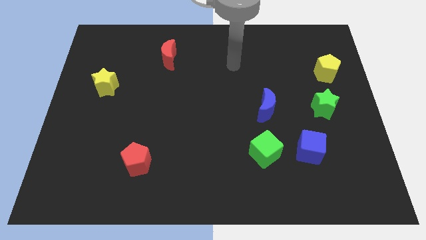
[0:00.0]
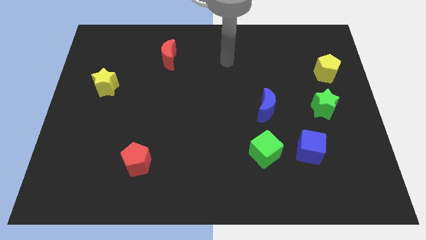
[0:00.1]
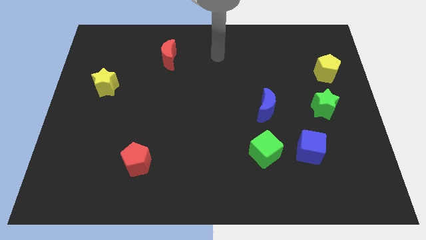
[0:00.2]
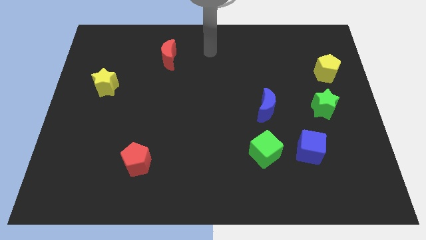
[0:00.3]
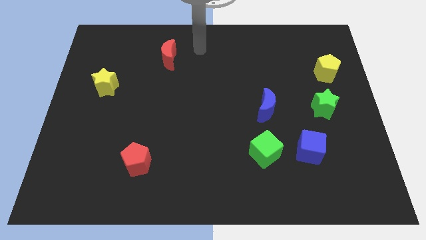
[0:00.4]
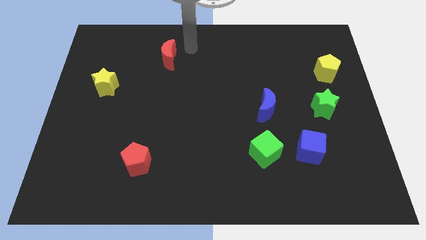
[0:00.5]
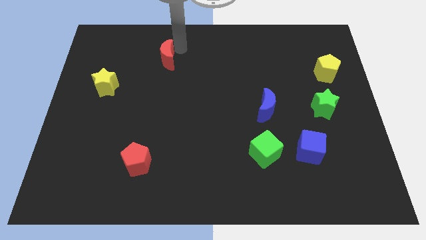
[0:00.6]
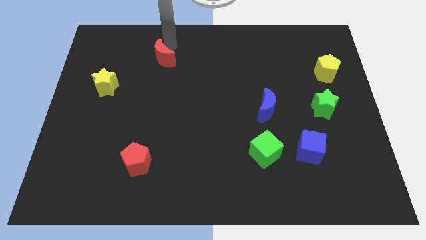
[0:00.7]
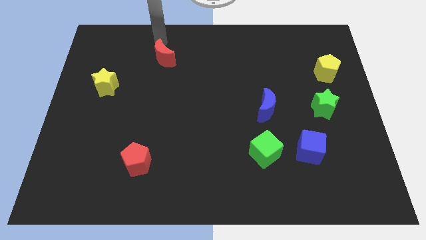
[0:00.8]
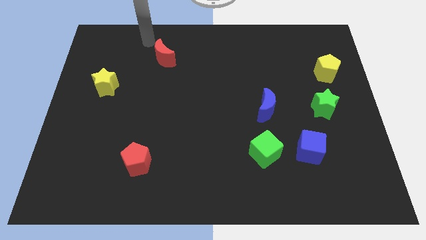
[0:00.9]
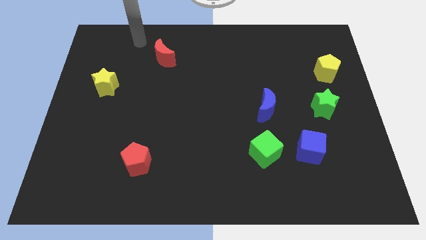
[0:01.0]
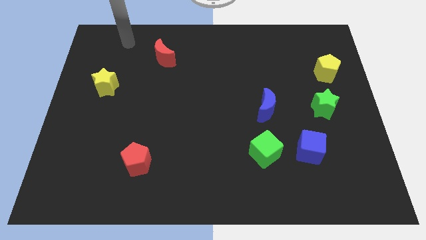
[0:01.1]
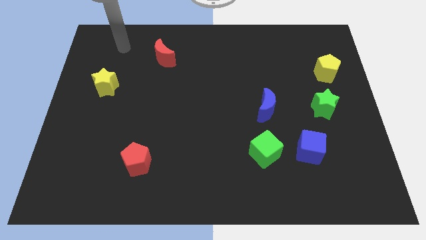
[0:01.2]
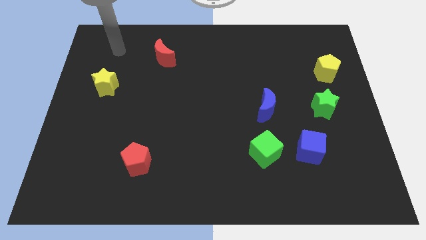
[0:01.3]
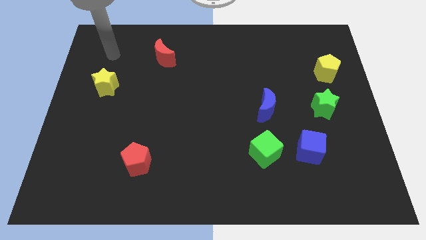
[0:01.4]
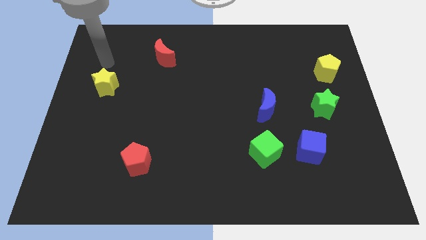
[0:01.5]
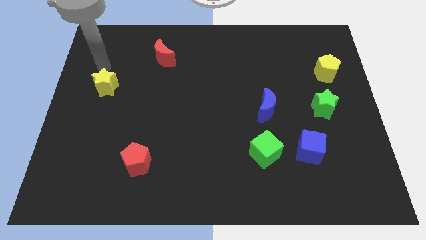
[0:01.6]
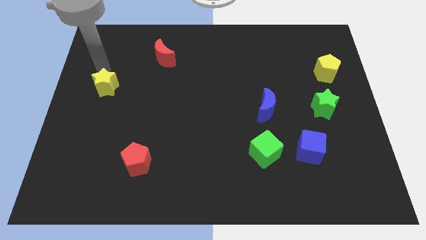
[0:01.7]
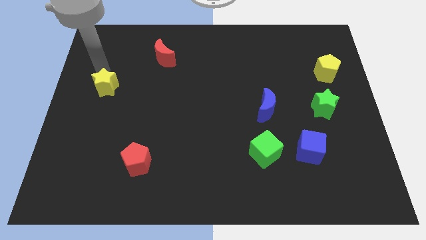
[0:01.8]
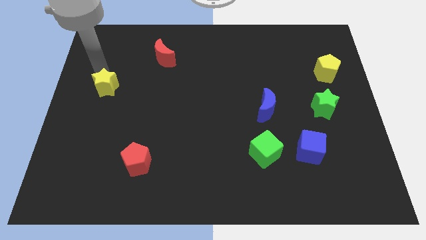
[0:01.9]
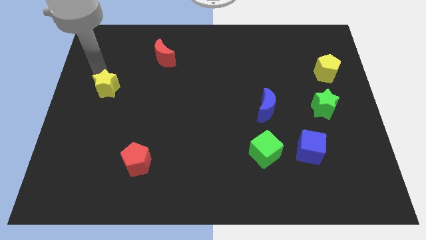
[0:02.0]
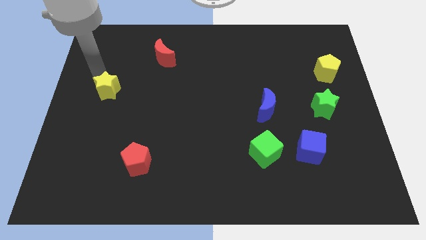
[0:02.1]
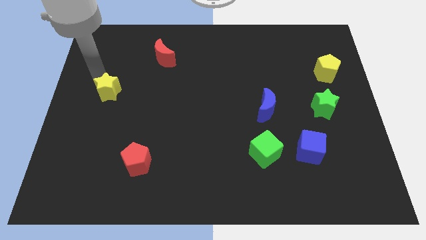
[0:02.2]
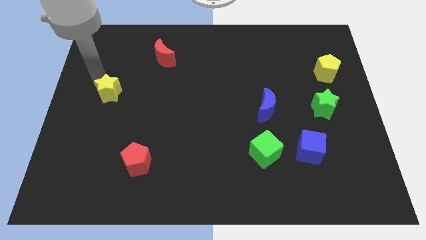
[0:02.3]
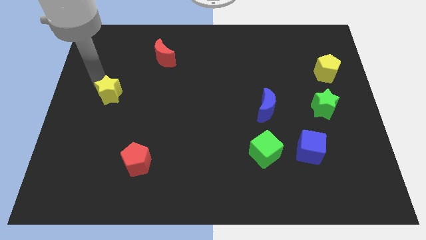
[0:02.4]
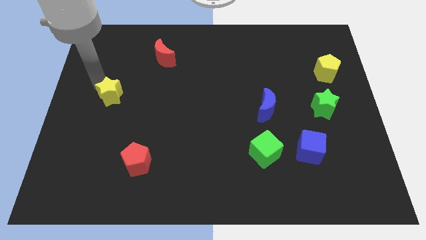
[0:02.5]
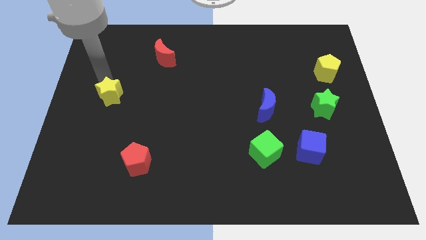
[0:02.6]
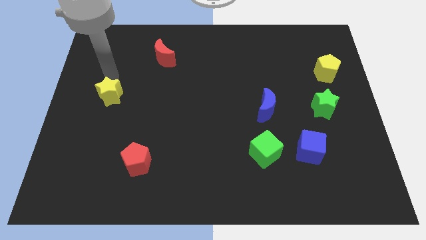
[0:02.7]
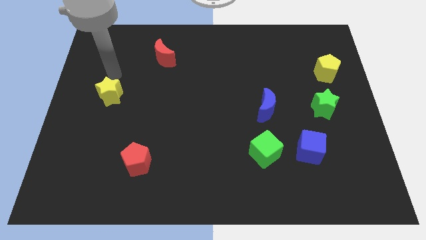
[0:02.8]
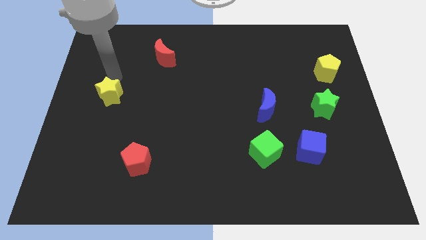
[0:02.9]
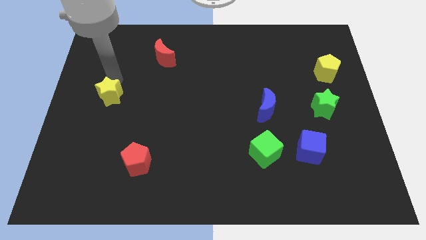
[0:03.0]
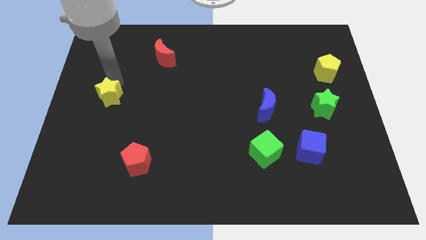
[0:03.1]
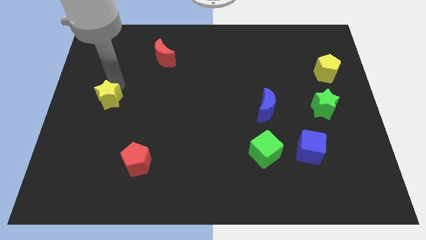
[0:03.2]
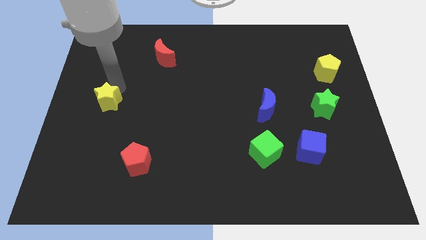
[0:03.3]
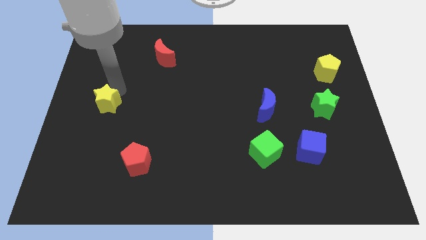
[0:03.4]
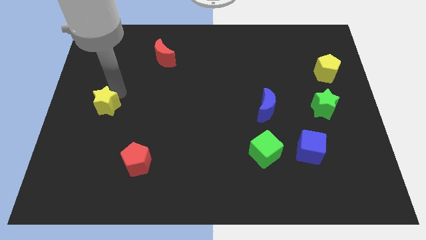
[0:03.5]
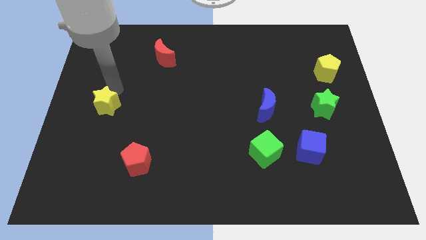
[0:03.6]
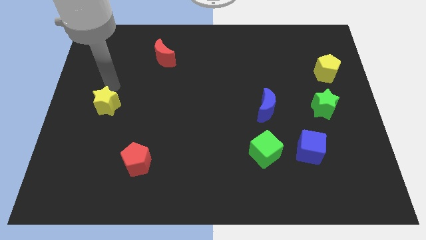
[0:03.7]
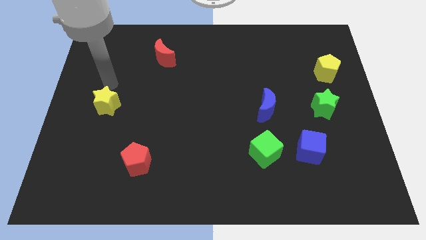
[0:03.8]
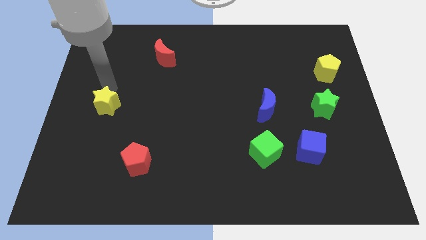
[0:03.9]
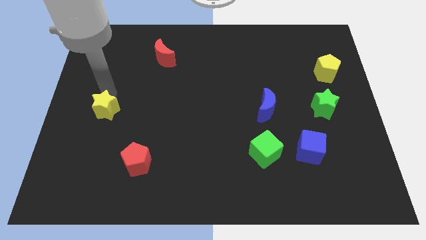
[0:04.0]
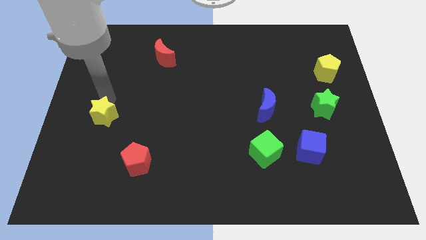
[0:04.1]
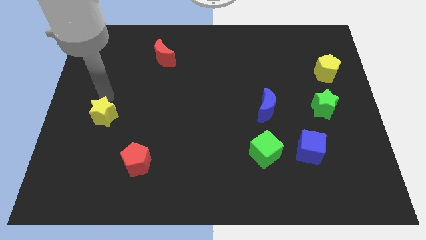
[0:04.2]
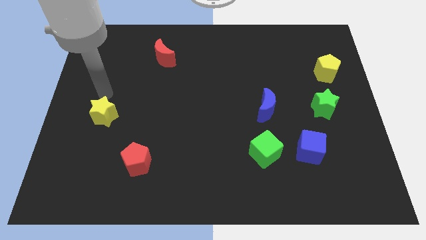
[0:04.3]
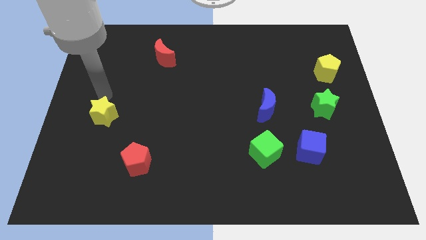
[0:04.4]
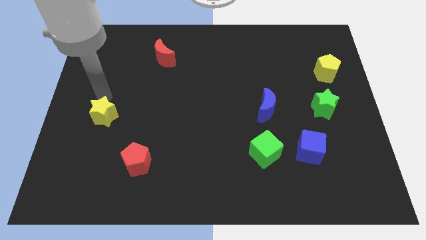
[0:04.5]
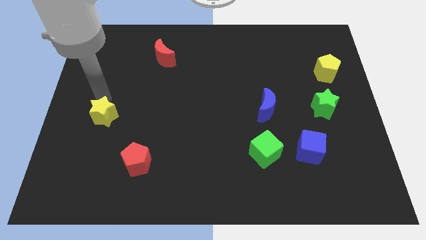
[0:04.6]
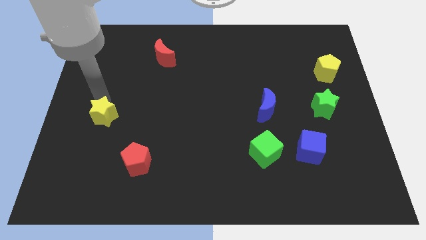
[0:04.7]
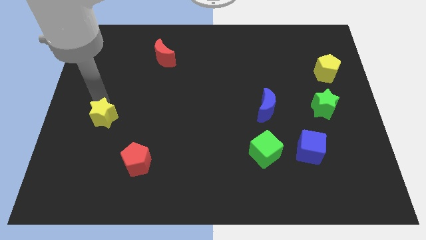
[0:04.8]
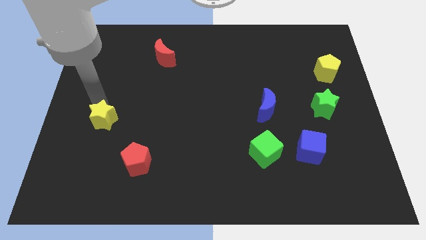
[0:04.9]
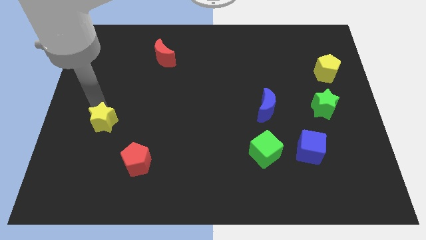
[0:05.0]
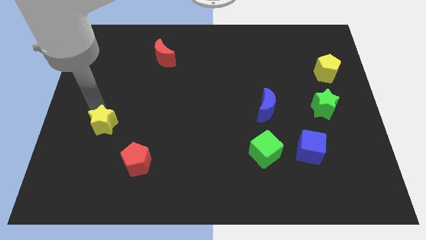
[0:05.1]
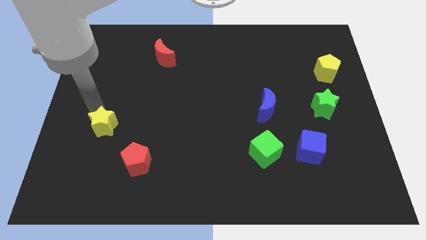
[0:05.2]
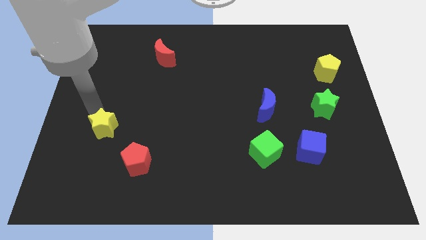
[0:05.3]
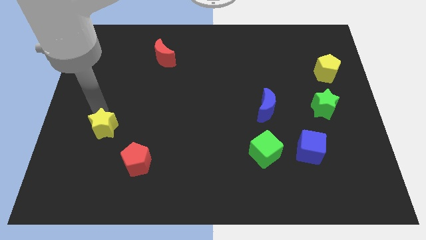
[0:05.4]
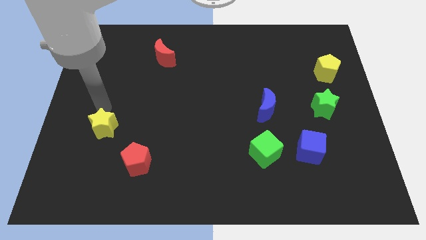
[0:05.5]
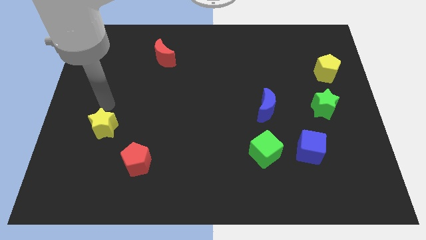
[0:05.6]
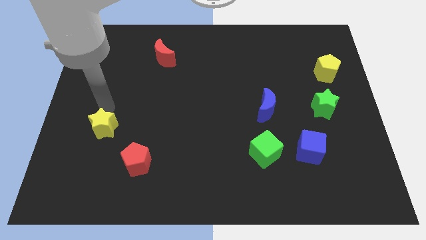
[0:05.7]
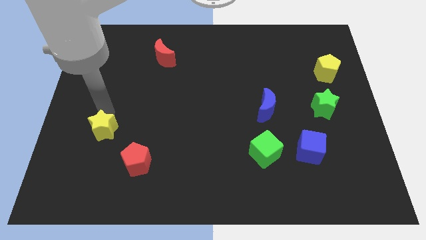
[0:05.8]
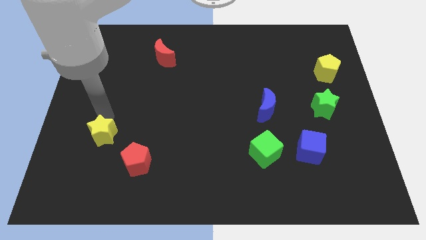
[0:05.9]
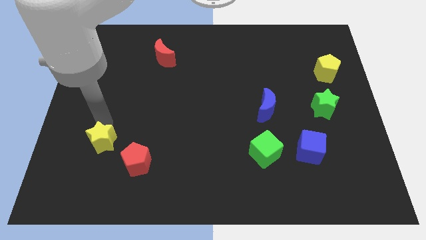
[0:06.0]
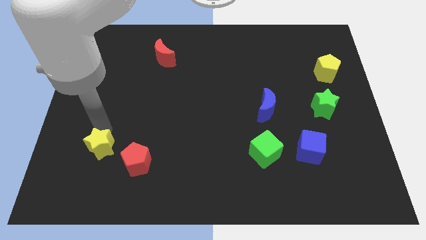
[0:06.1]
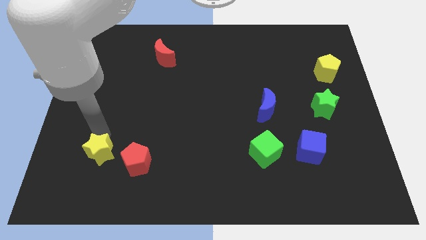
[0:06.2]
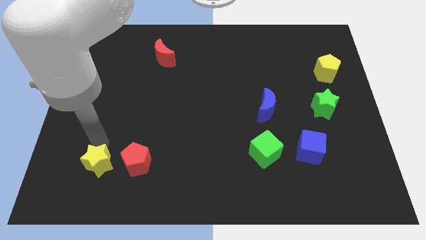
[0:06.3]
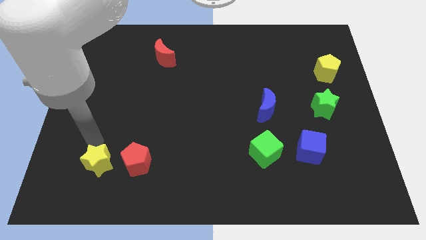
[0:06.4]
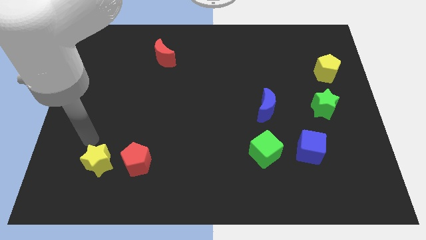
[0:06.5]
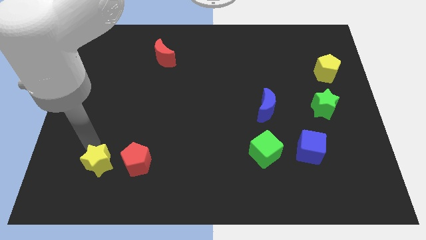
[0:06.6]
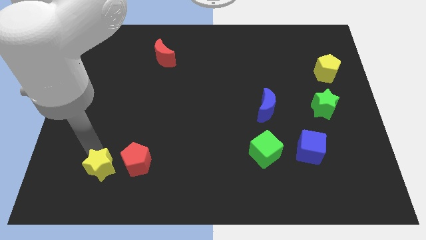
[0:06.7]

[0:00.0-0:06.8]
push the yellow star to the bottom left side of the red pentagon
